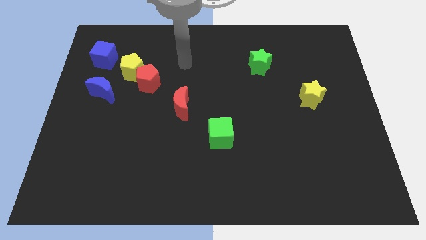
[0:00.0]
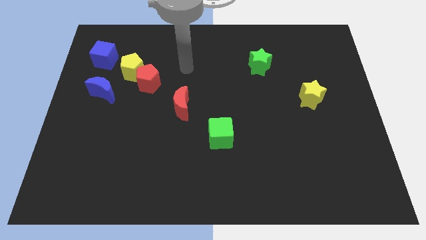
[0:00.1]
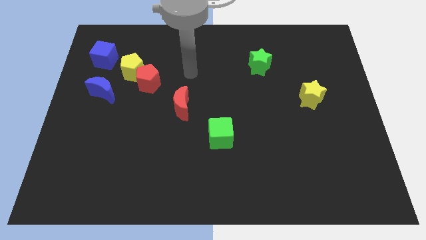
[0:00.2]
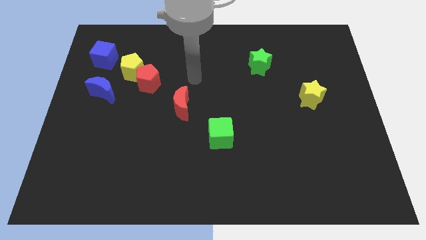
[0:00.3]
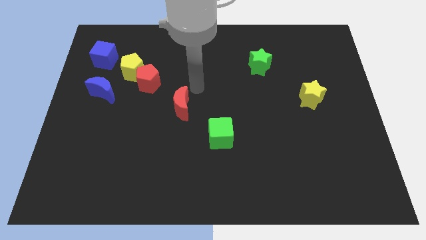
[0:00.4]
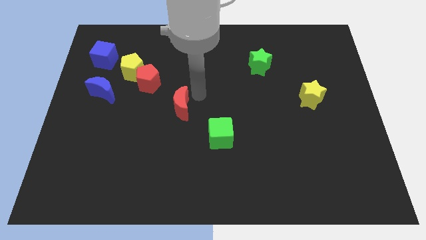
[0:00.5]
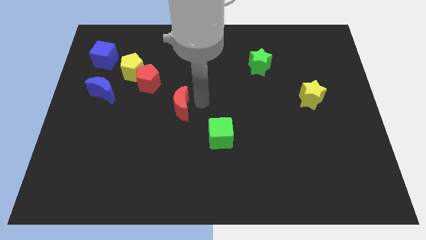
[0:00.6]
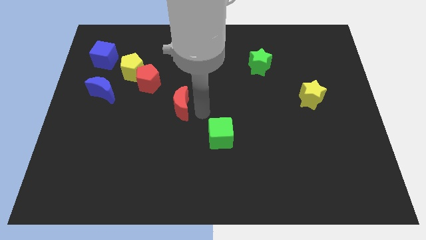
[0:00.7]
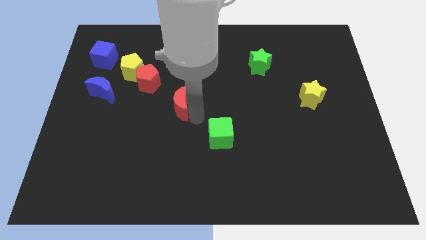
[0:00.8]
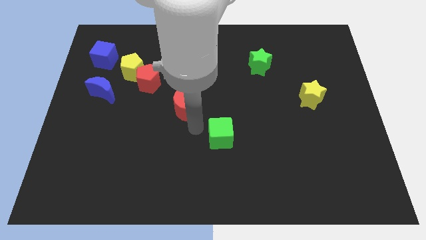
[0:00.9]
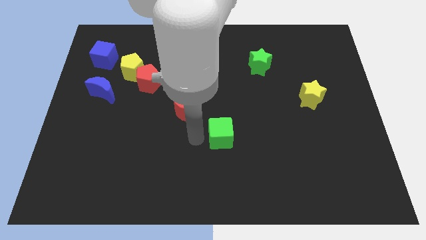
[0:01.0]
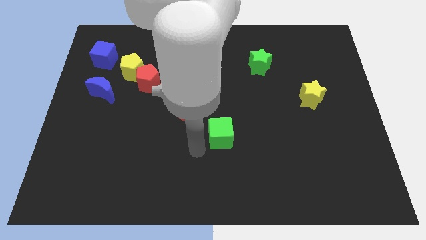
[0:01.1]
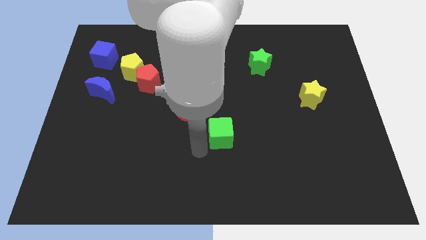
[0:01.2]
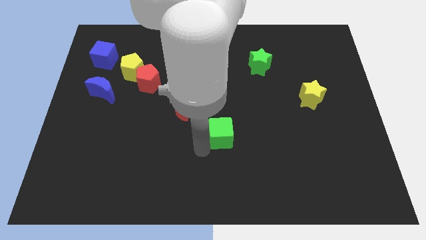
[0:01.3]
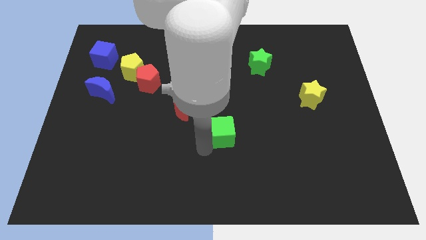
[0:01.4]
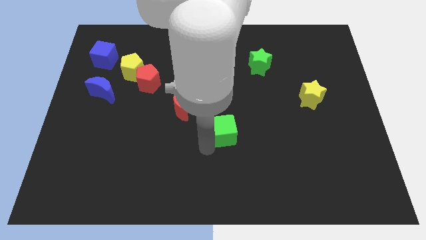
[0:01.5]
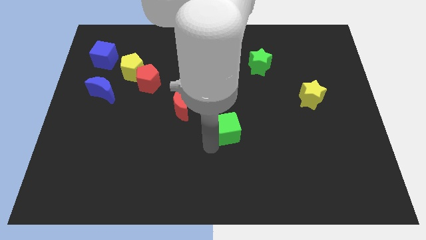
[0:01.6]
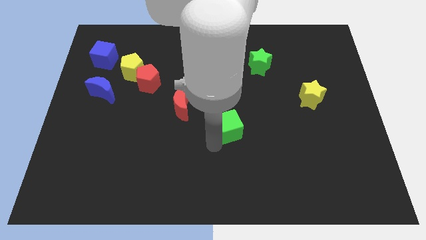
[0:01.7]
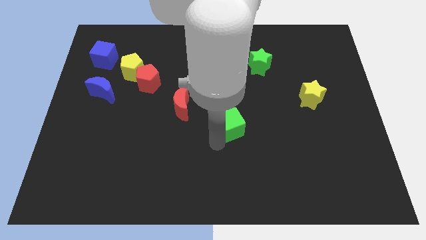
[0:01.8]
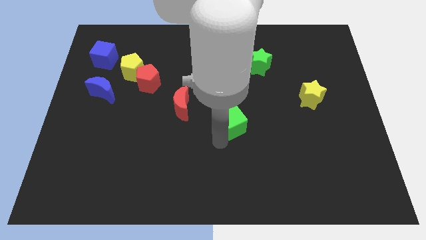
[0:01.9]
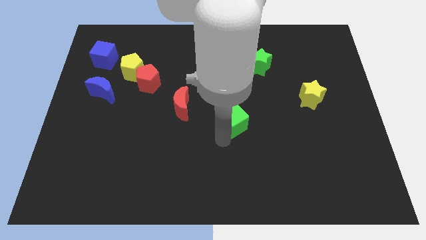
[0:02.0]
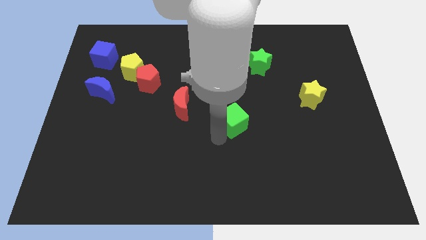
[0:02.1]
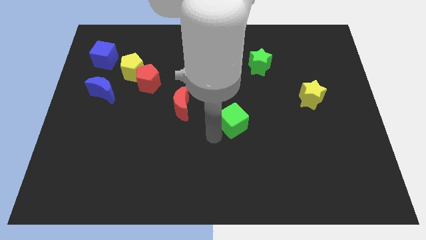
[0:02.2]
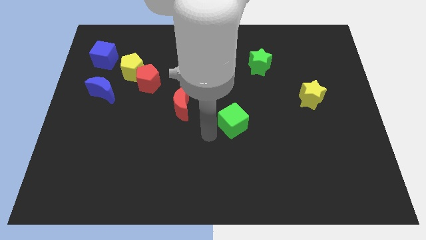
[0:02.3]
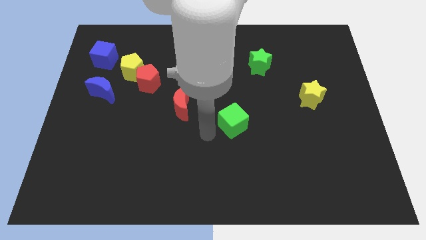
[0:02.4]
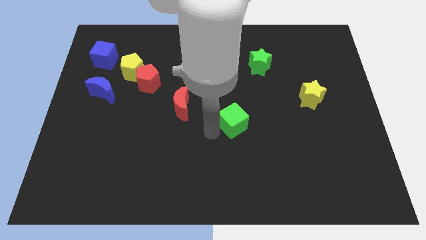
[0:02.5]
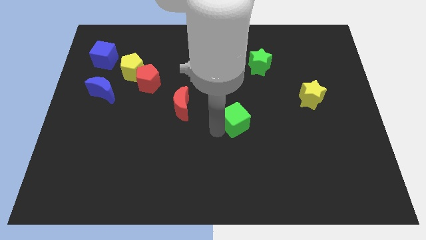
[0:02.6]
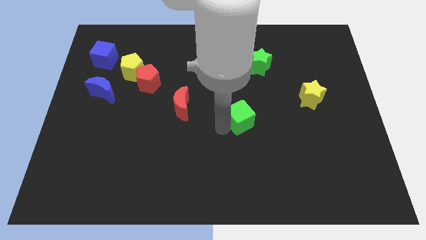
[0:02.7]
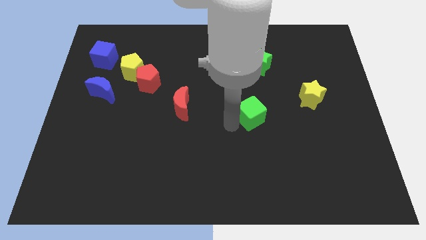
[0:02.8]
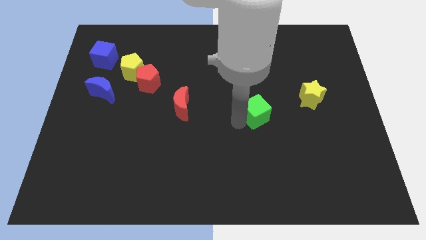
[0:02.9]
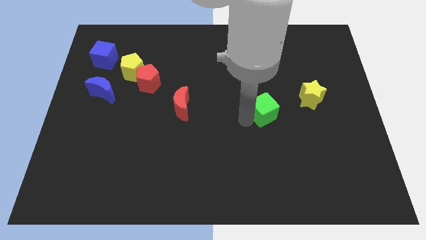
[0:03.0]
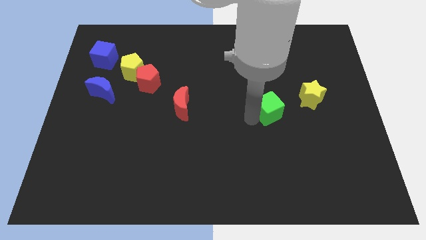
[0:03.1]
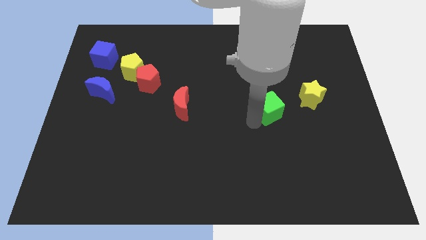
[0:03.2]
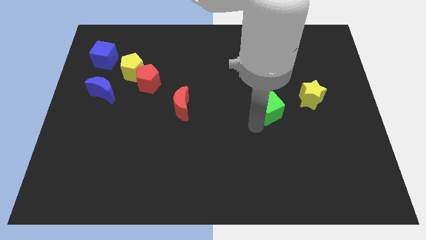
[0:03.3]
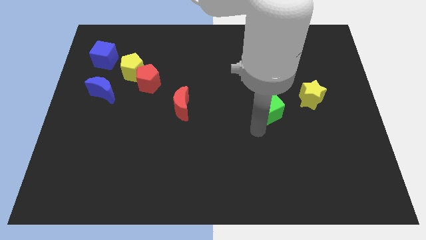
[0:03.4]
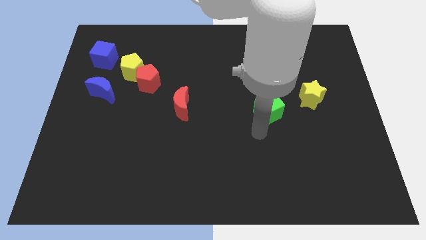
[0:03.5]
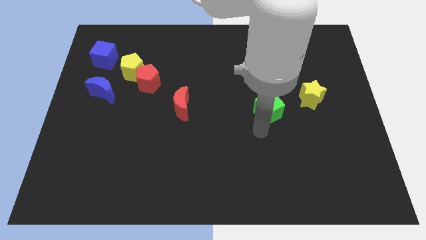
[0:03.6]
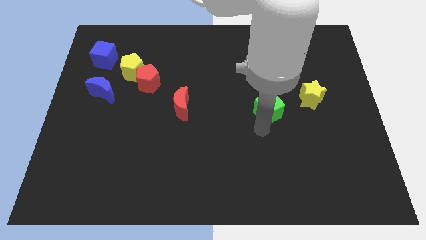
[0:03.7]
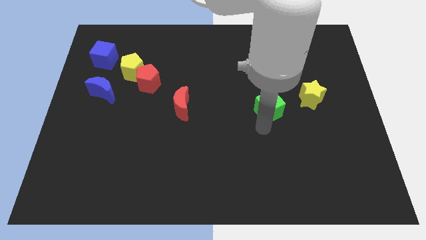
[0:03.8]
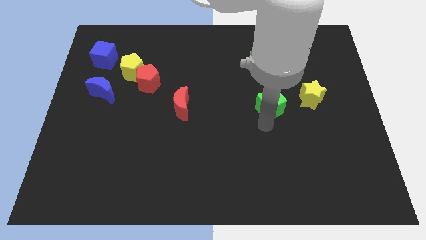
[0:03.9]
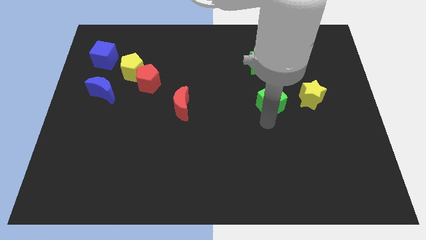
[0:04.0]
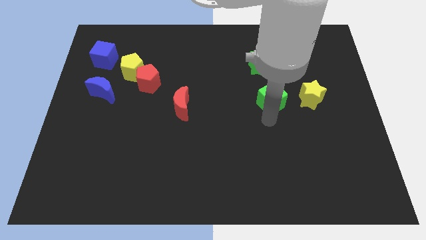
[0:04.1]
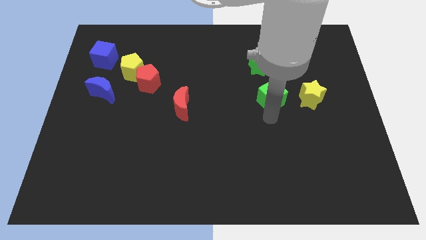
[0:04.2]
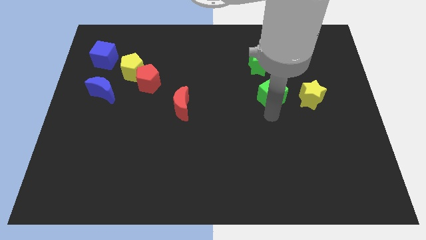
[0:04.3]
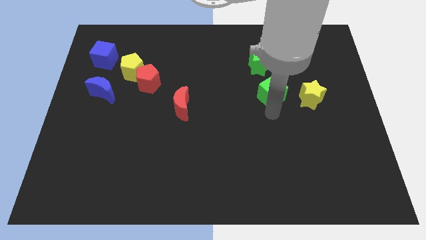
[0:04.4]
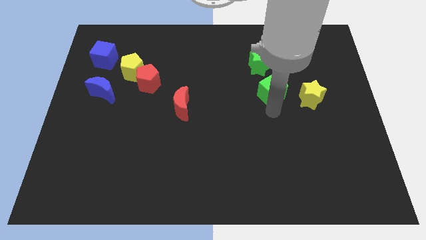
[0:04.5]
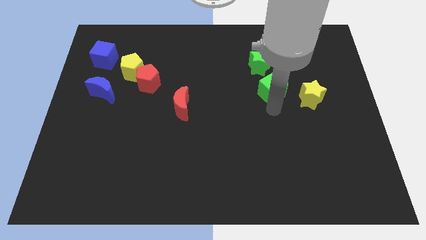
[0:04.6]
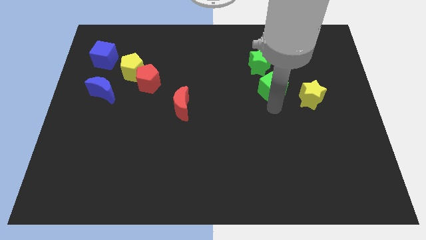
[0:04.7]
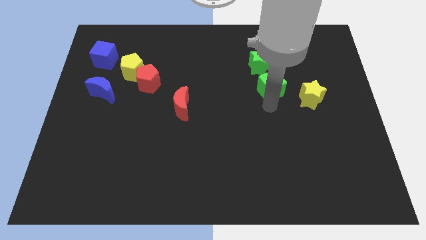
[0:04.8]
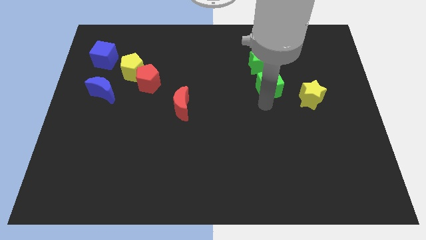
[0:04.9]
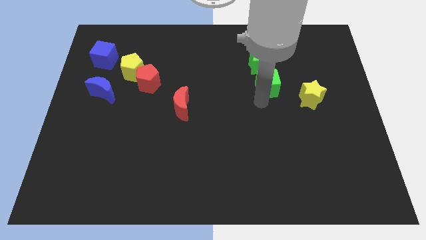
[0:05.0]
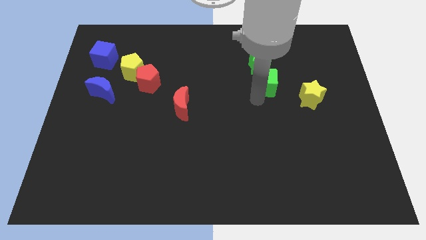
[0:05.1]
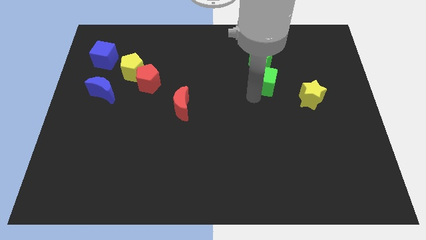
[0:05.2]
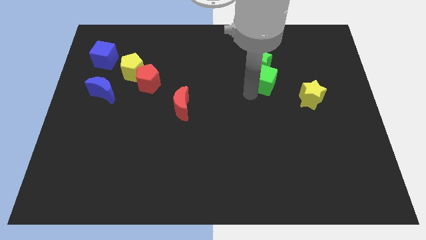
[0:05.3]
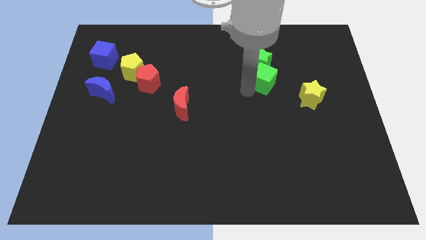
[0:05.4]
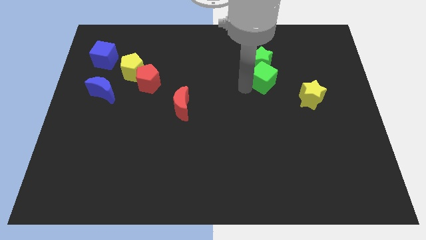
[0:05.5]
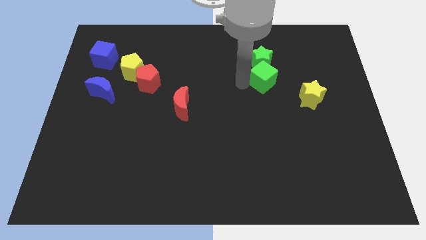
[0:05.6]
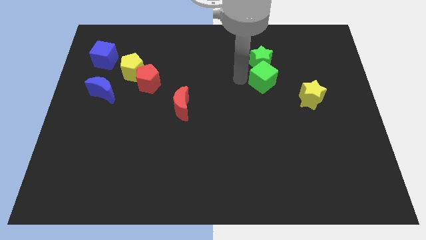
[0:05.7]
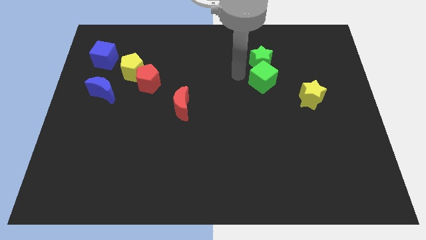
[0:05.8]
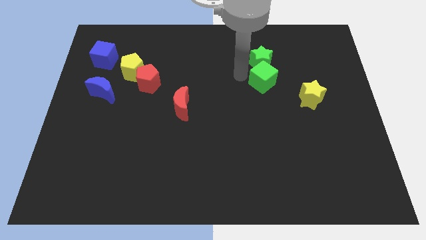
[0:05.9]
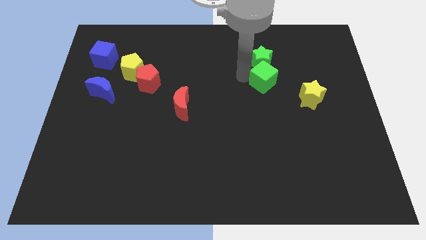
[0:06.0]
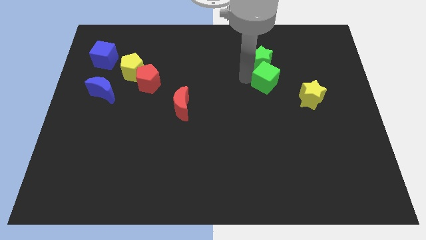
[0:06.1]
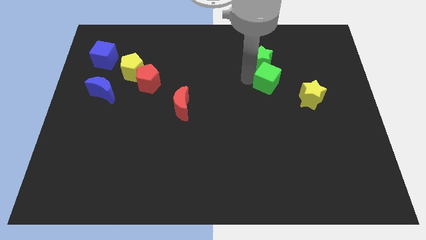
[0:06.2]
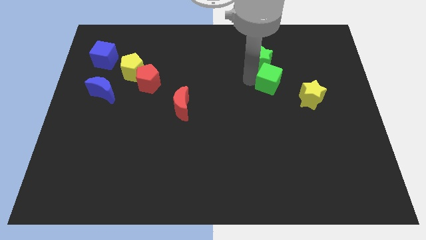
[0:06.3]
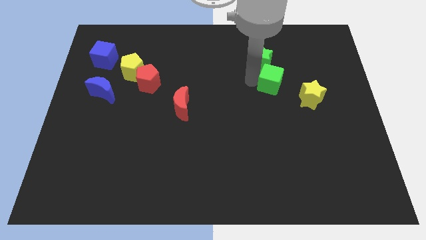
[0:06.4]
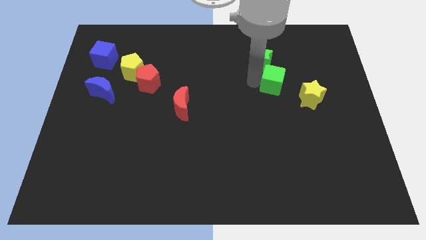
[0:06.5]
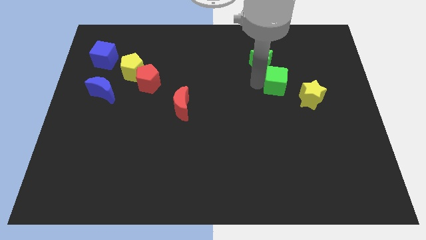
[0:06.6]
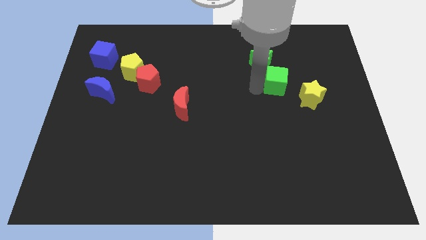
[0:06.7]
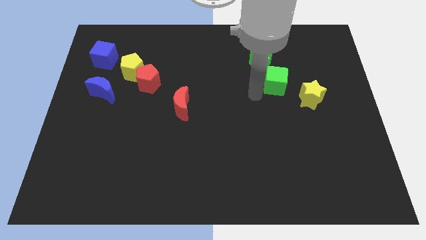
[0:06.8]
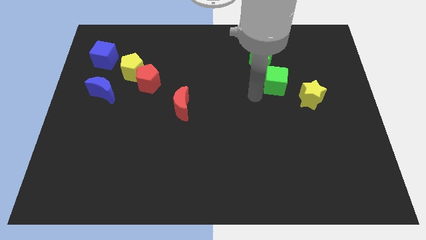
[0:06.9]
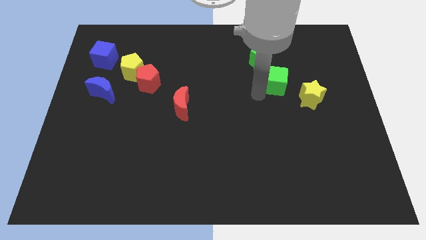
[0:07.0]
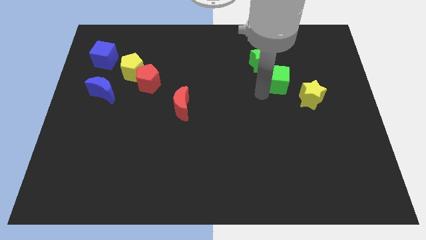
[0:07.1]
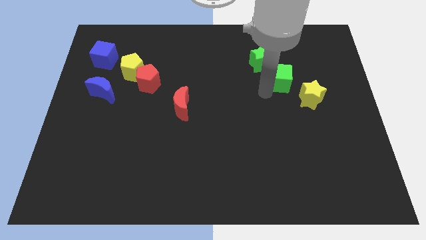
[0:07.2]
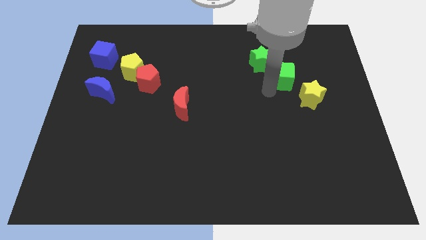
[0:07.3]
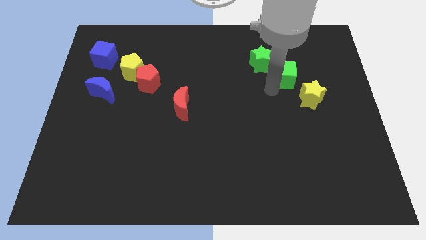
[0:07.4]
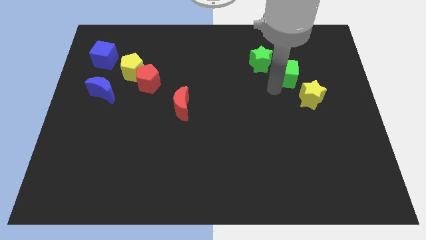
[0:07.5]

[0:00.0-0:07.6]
put the green cube to the top side of the yellow star

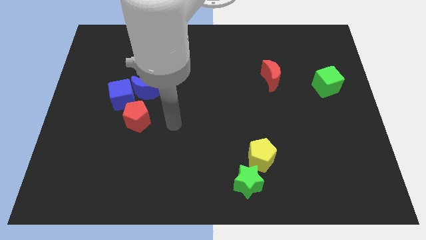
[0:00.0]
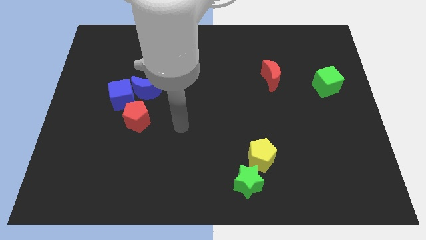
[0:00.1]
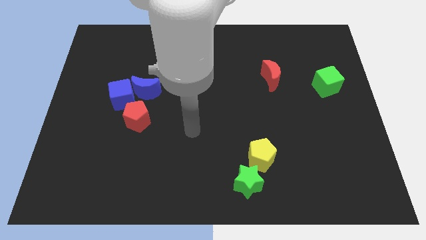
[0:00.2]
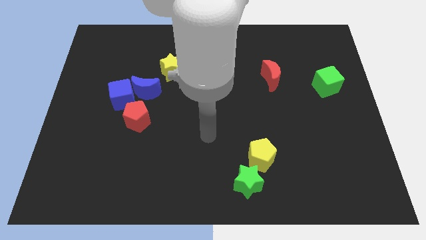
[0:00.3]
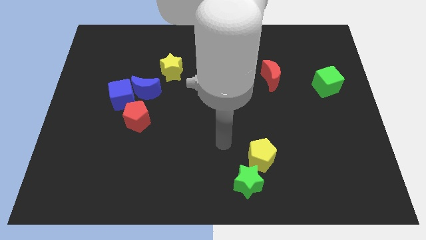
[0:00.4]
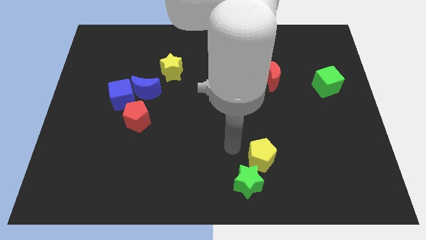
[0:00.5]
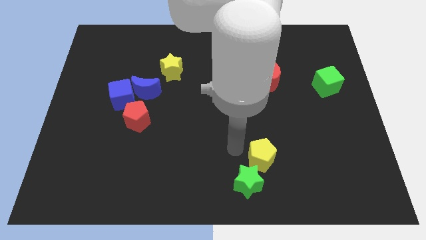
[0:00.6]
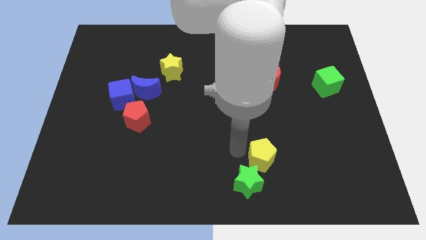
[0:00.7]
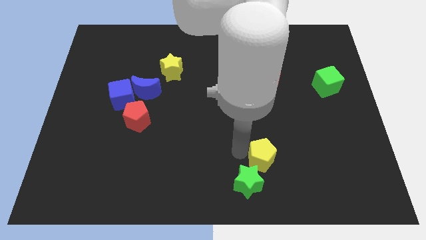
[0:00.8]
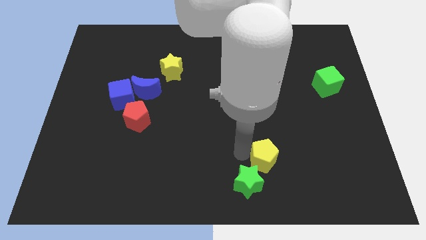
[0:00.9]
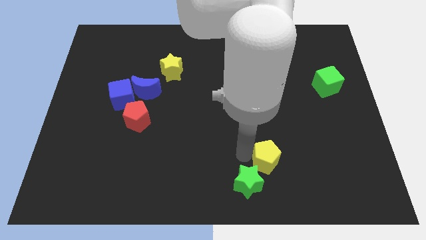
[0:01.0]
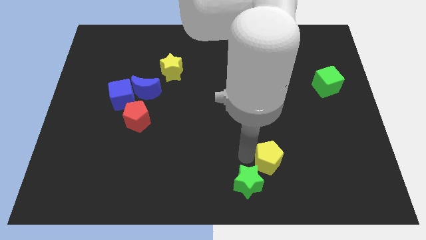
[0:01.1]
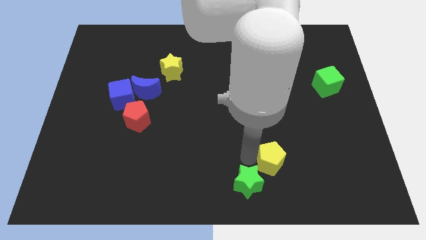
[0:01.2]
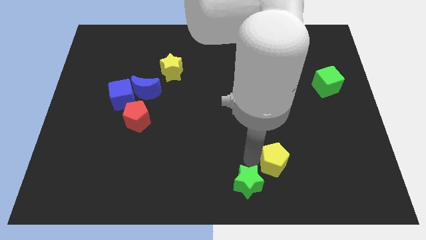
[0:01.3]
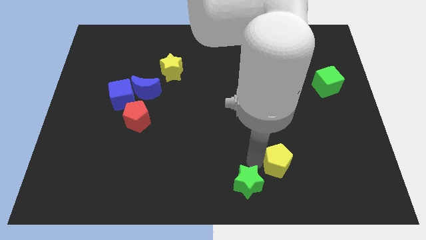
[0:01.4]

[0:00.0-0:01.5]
put the yellow pentagon to the right side of the green star
